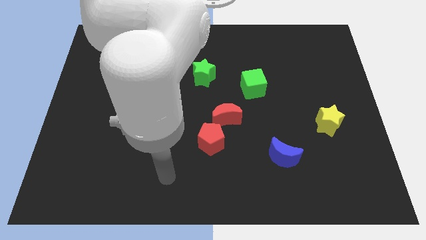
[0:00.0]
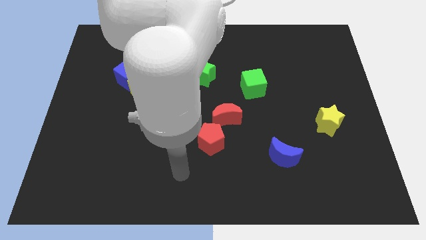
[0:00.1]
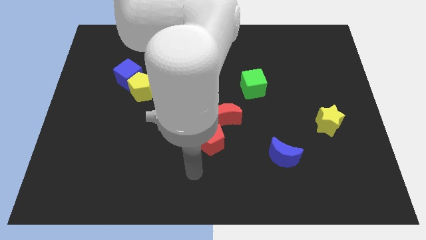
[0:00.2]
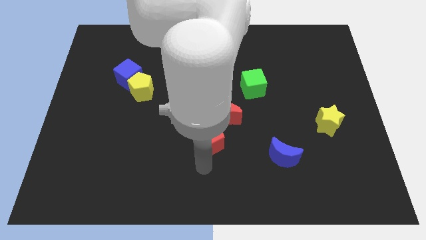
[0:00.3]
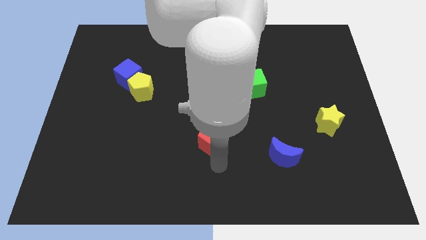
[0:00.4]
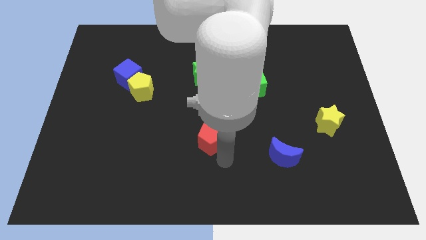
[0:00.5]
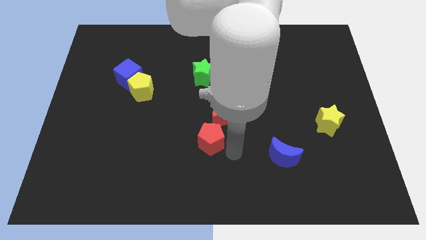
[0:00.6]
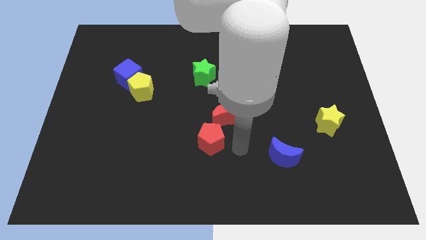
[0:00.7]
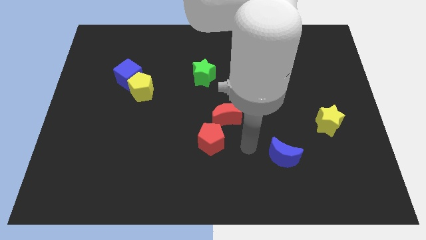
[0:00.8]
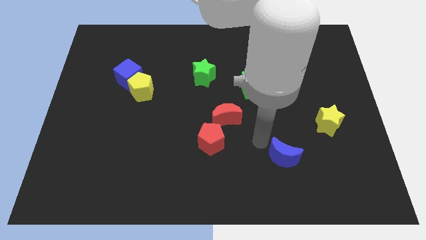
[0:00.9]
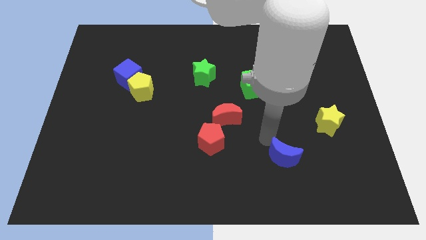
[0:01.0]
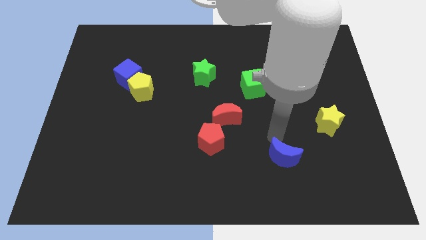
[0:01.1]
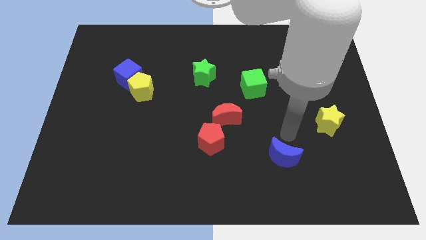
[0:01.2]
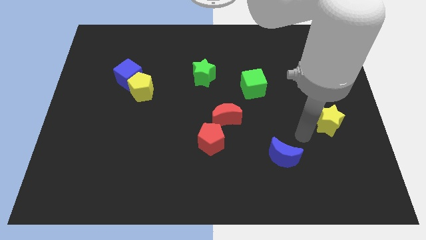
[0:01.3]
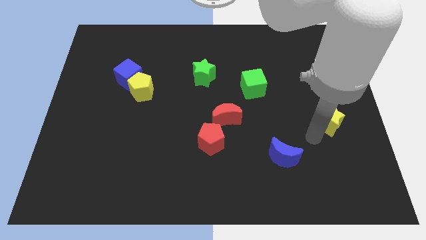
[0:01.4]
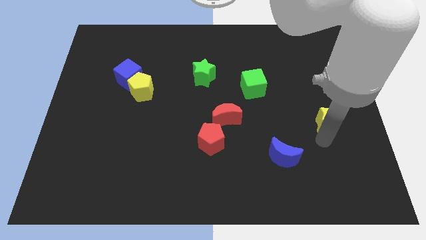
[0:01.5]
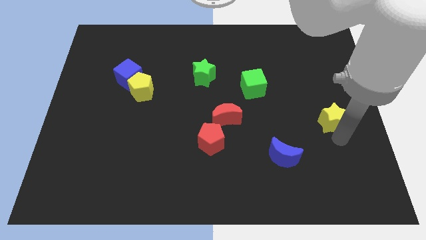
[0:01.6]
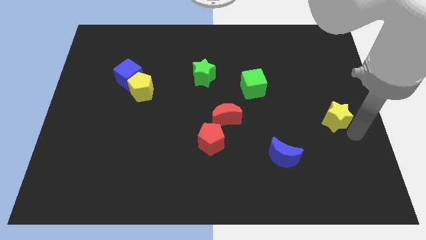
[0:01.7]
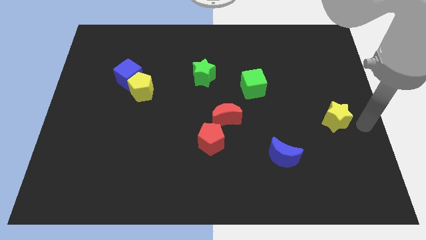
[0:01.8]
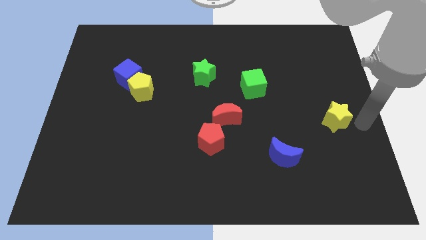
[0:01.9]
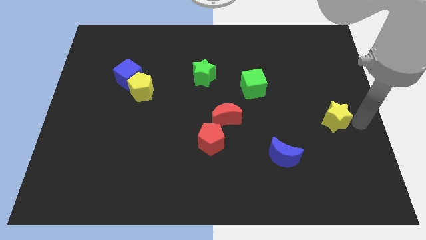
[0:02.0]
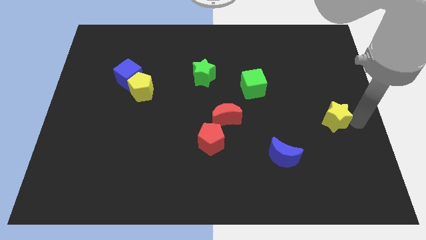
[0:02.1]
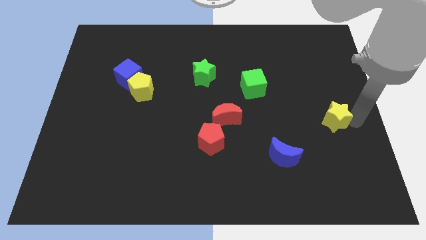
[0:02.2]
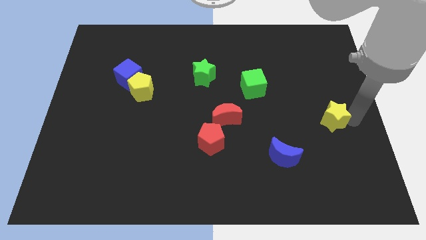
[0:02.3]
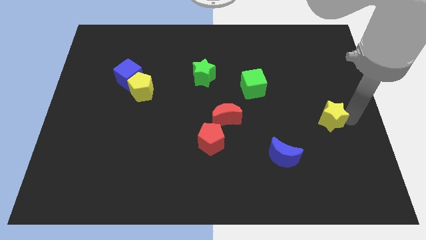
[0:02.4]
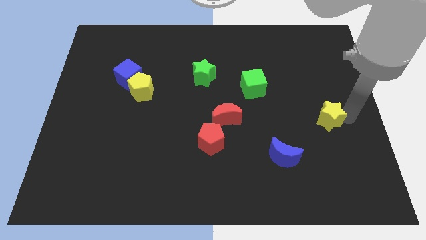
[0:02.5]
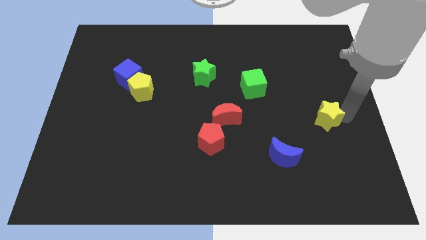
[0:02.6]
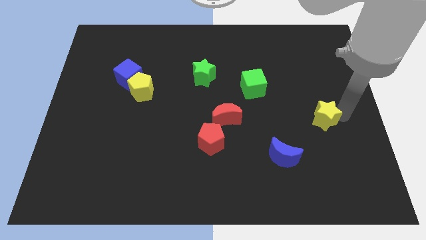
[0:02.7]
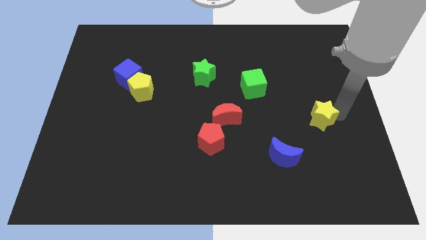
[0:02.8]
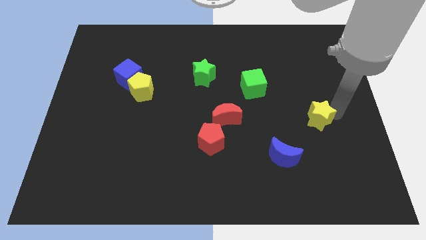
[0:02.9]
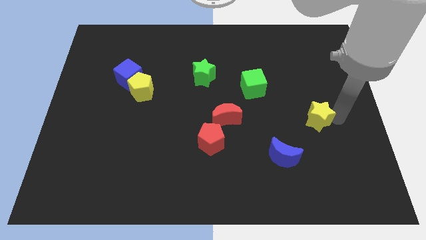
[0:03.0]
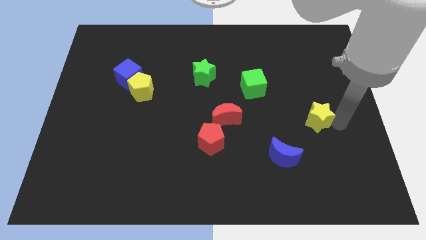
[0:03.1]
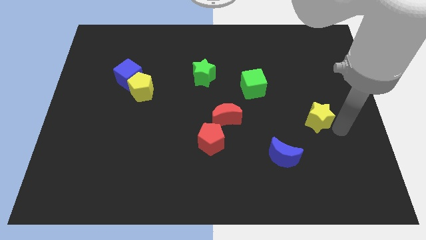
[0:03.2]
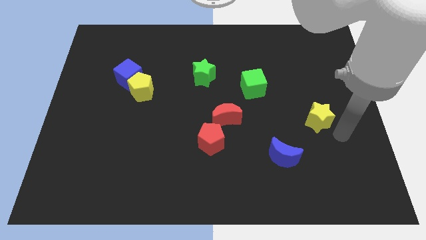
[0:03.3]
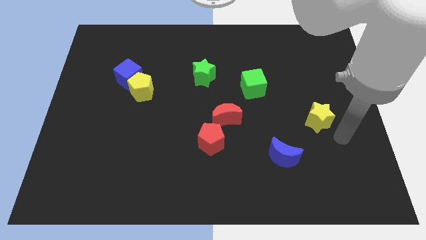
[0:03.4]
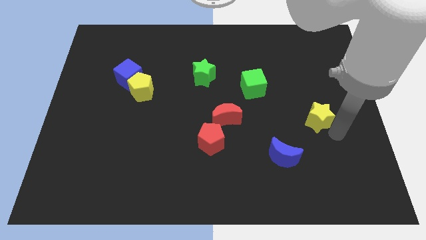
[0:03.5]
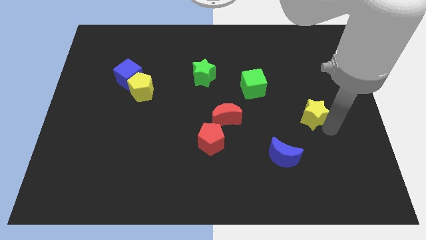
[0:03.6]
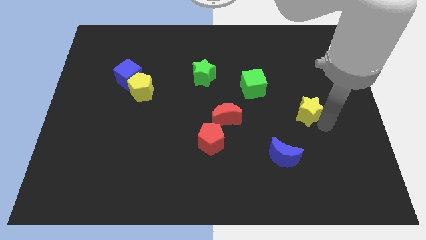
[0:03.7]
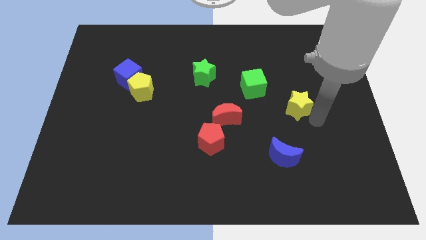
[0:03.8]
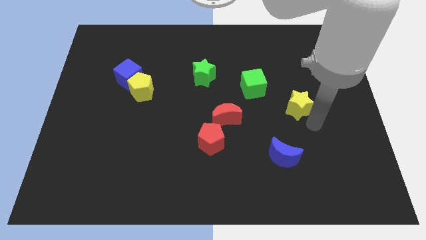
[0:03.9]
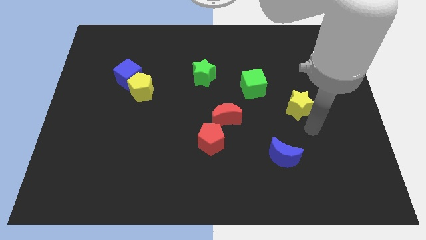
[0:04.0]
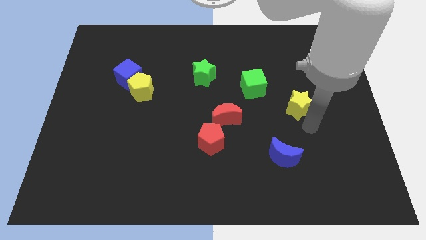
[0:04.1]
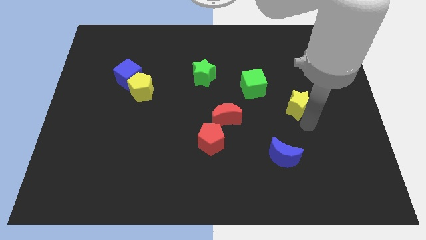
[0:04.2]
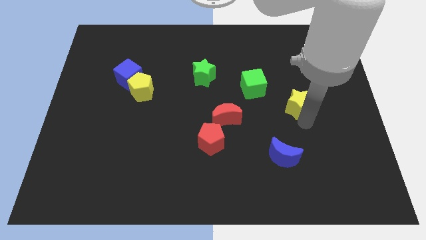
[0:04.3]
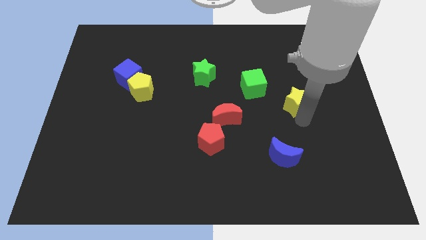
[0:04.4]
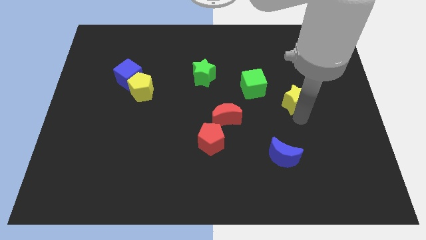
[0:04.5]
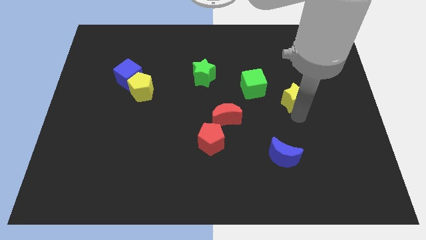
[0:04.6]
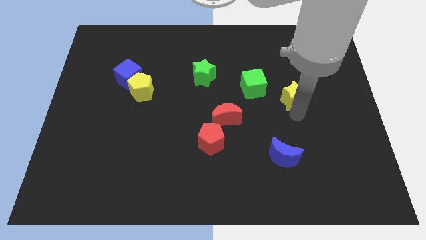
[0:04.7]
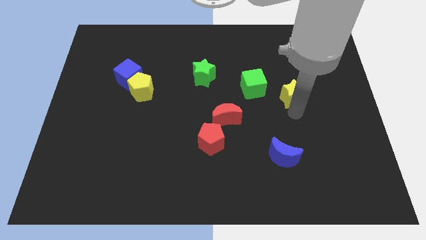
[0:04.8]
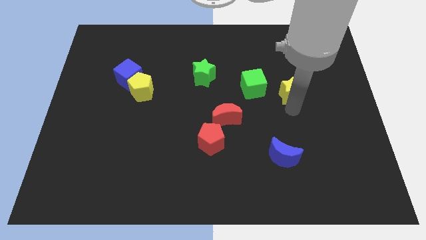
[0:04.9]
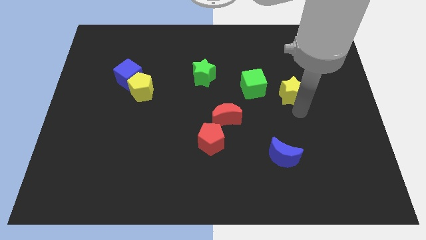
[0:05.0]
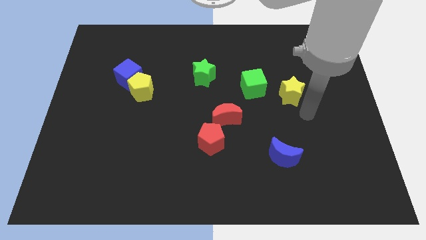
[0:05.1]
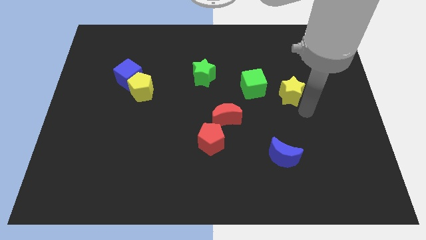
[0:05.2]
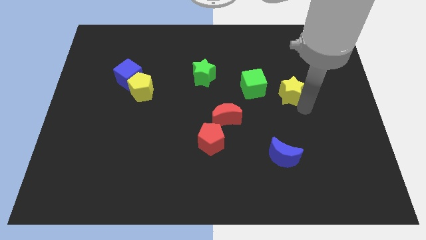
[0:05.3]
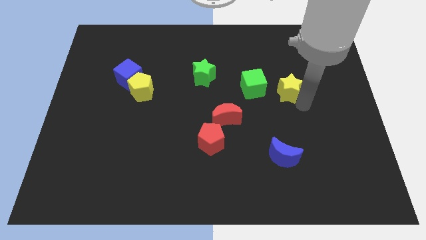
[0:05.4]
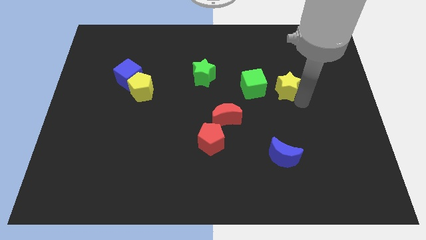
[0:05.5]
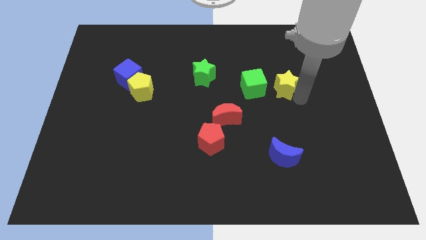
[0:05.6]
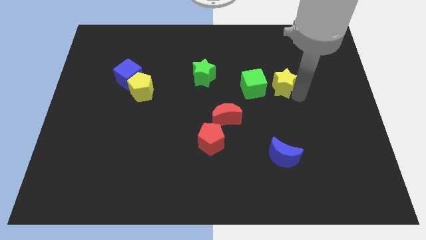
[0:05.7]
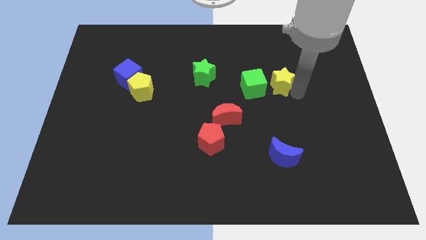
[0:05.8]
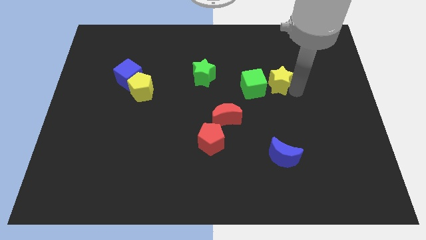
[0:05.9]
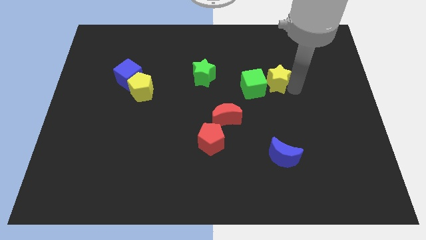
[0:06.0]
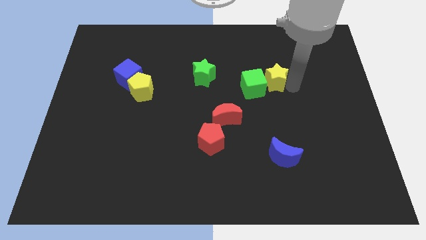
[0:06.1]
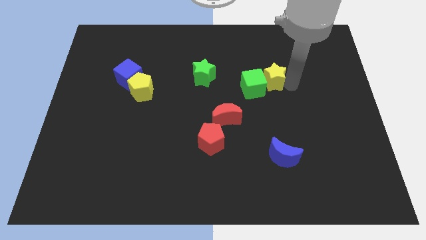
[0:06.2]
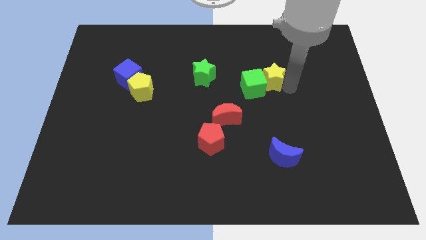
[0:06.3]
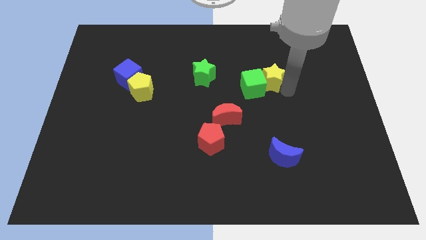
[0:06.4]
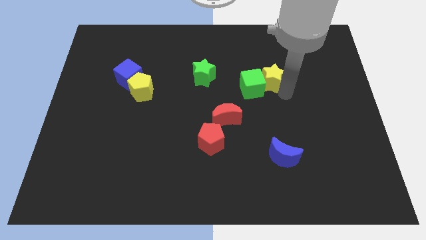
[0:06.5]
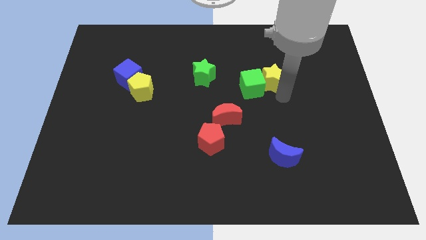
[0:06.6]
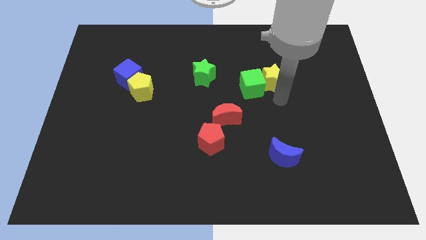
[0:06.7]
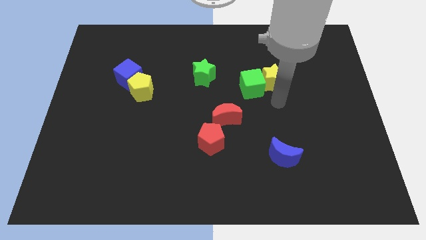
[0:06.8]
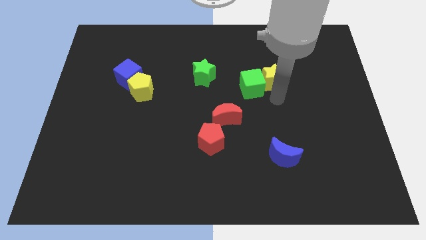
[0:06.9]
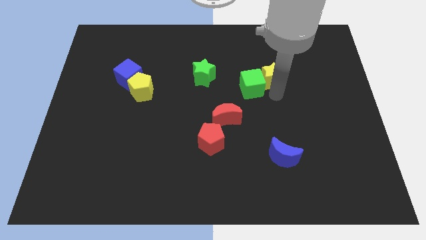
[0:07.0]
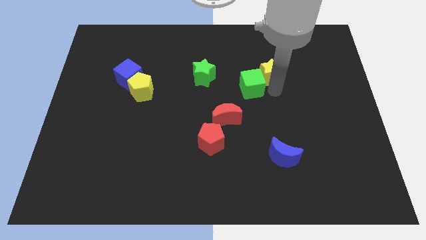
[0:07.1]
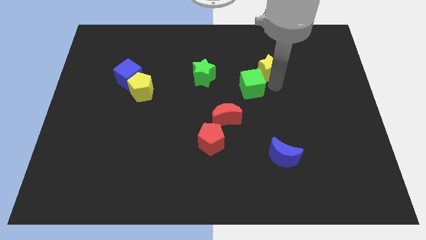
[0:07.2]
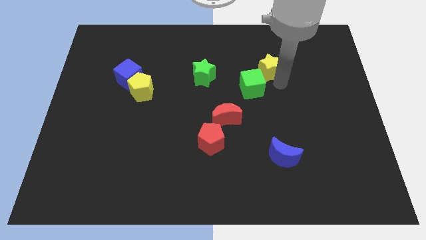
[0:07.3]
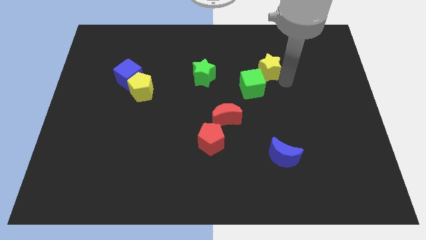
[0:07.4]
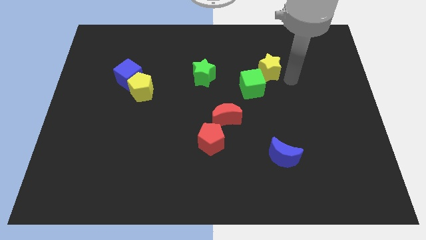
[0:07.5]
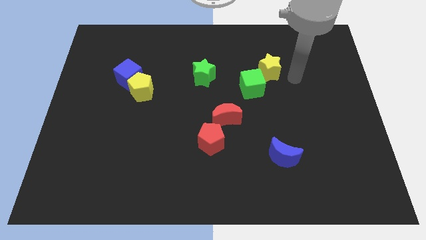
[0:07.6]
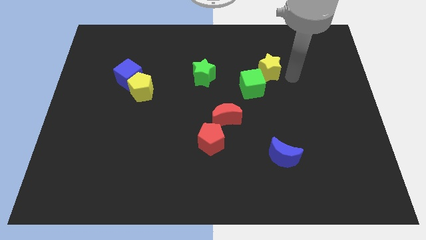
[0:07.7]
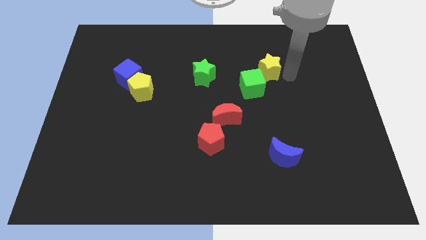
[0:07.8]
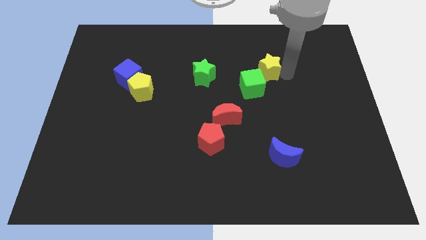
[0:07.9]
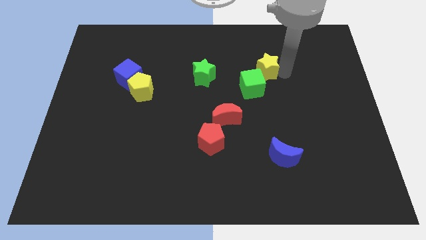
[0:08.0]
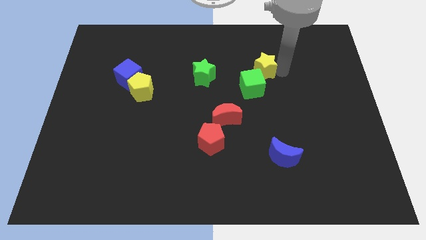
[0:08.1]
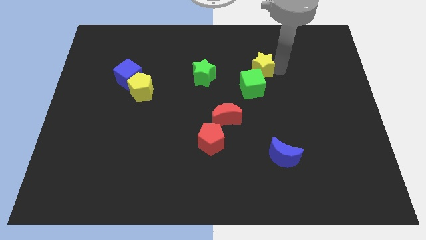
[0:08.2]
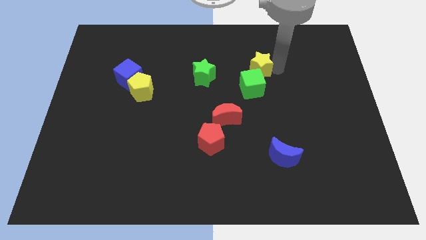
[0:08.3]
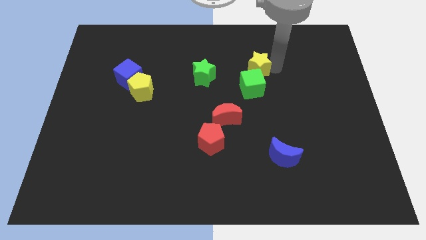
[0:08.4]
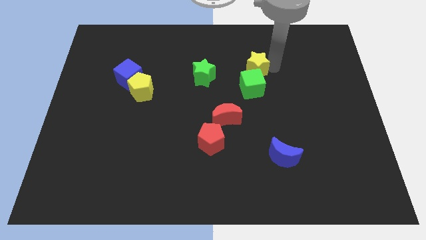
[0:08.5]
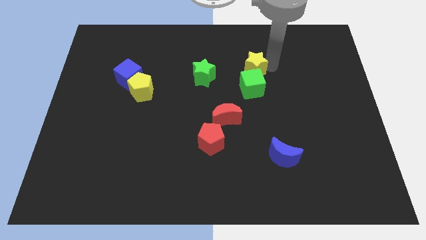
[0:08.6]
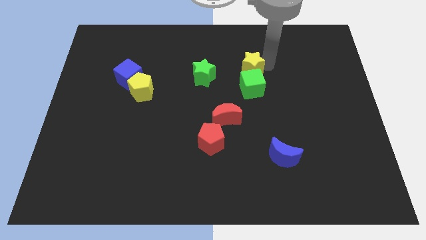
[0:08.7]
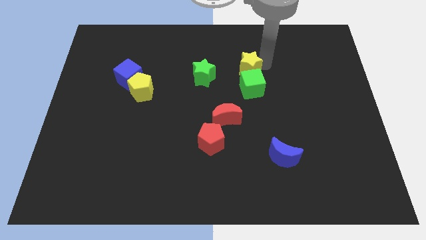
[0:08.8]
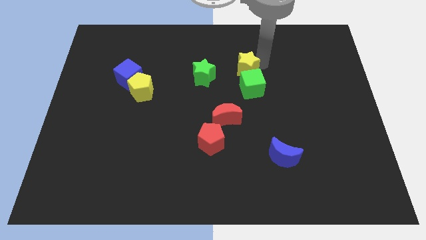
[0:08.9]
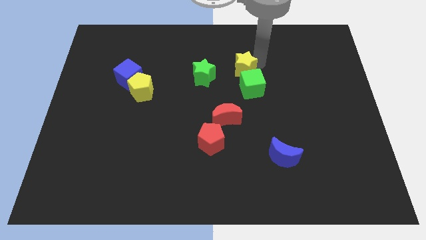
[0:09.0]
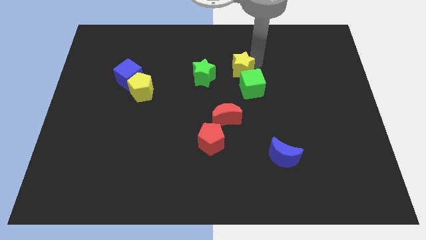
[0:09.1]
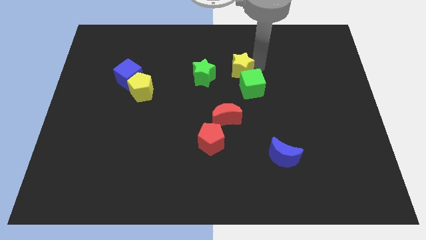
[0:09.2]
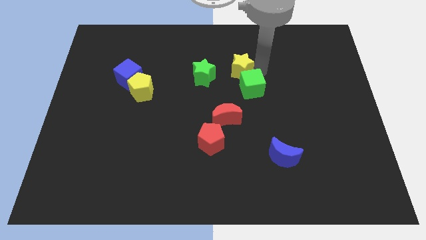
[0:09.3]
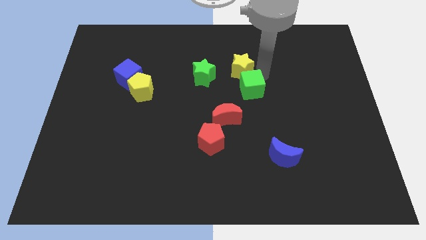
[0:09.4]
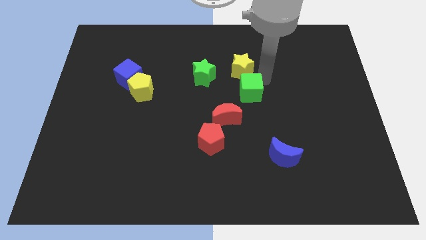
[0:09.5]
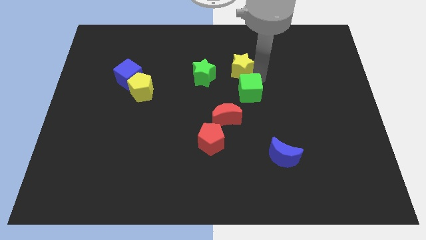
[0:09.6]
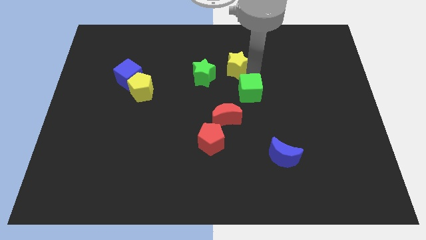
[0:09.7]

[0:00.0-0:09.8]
slide the yellow star to the top right side of the green star
